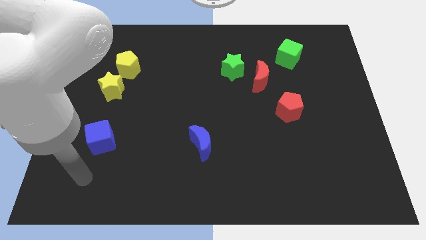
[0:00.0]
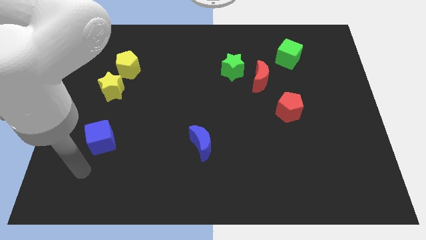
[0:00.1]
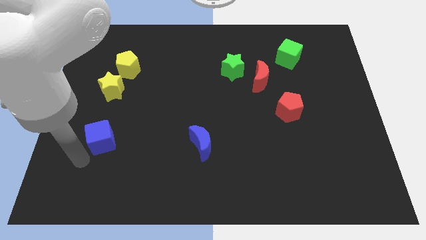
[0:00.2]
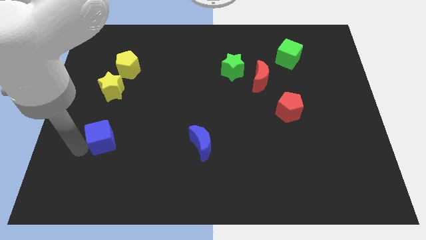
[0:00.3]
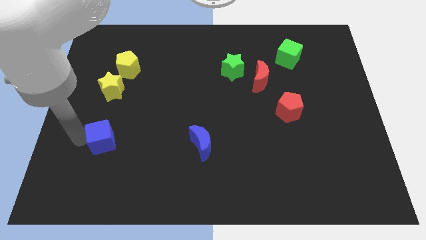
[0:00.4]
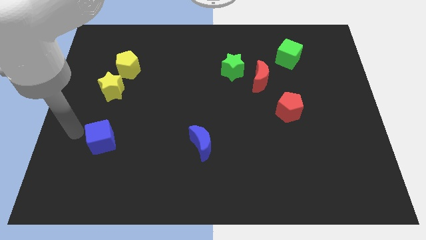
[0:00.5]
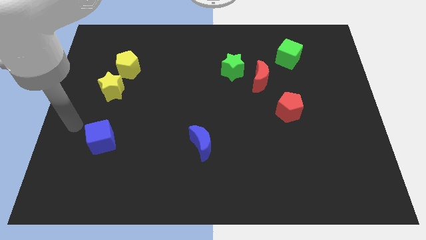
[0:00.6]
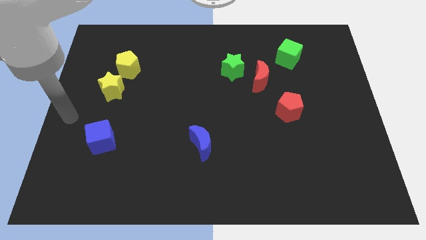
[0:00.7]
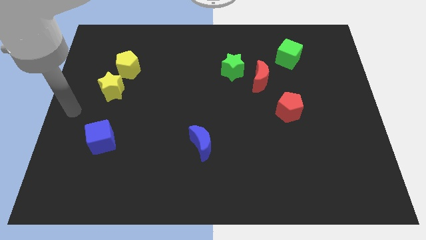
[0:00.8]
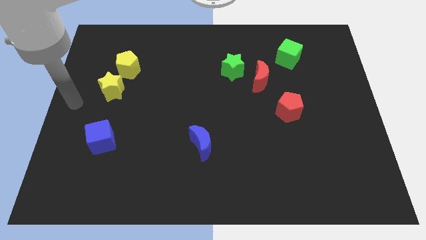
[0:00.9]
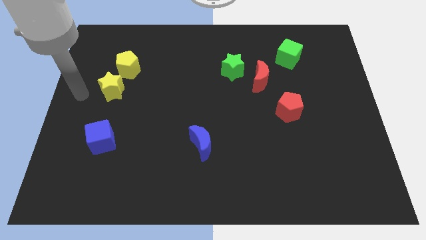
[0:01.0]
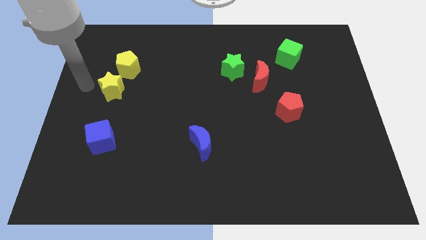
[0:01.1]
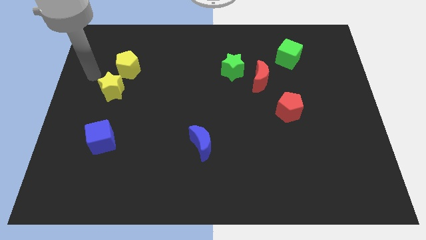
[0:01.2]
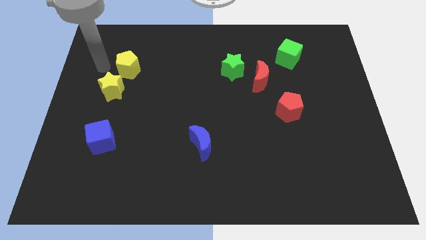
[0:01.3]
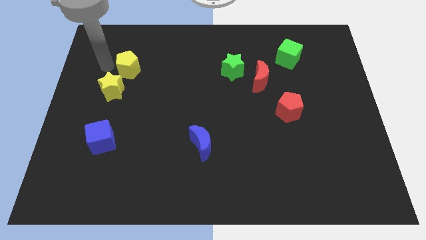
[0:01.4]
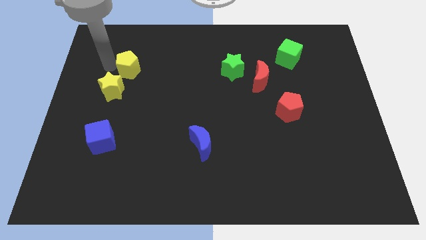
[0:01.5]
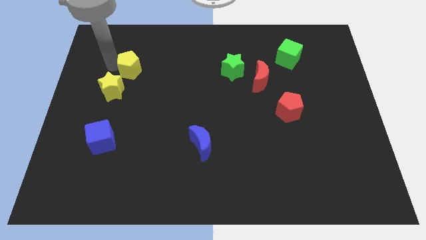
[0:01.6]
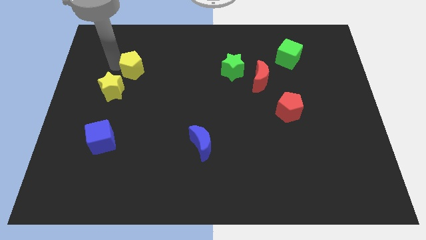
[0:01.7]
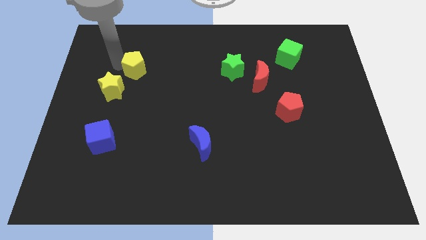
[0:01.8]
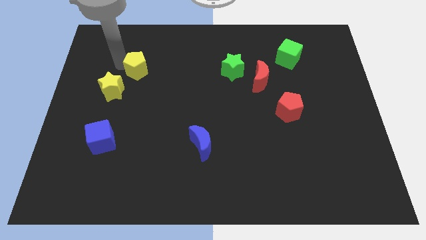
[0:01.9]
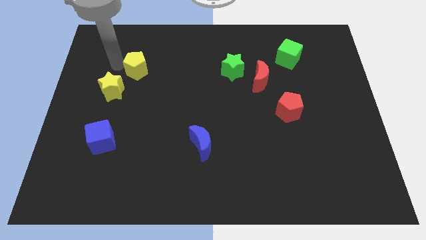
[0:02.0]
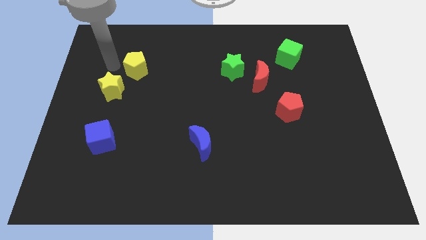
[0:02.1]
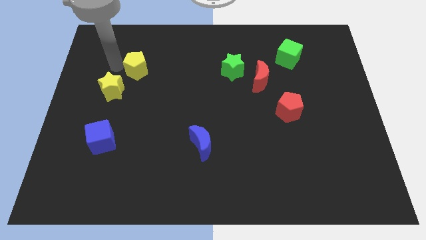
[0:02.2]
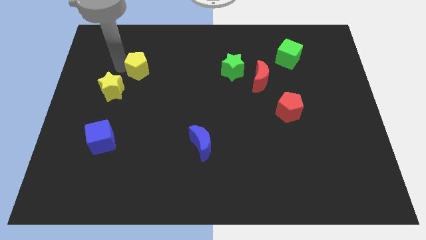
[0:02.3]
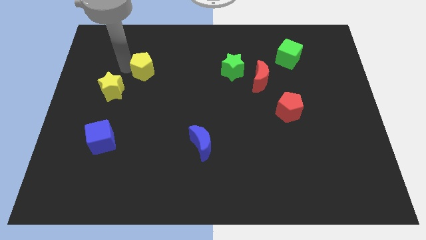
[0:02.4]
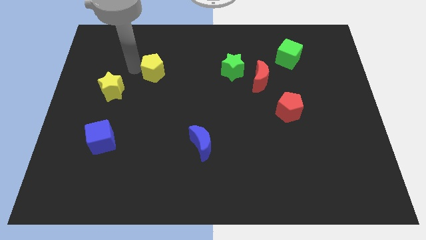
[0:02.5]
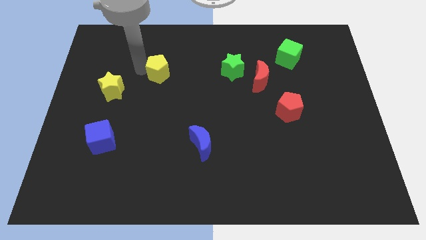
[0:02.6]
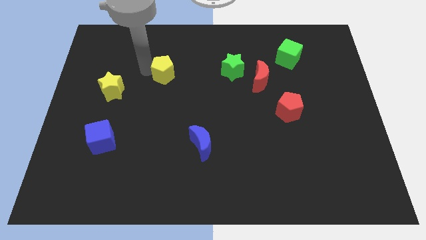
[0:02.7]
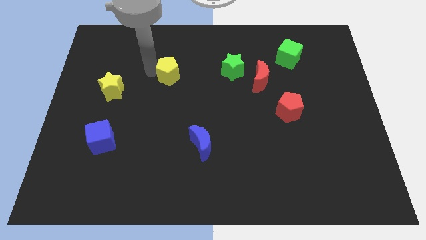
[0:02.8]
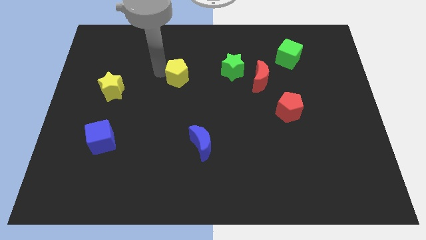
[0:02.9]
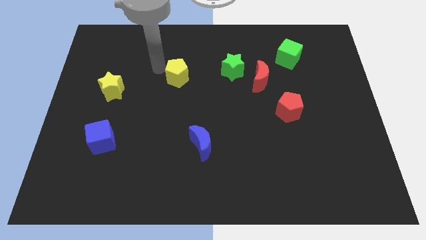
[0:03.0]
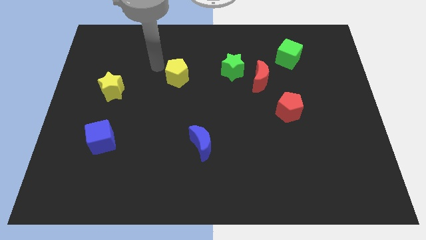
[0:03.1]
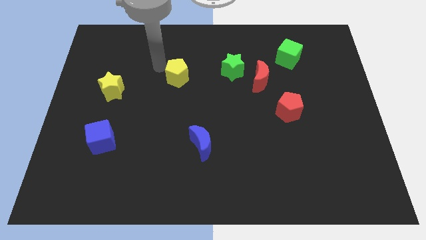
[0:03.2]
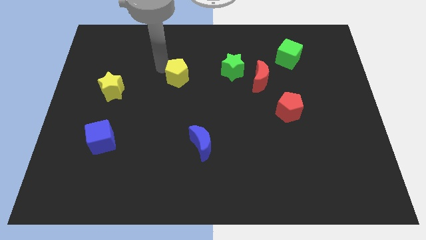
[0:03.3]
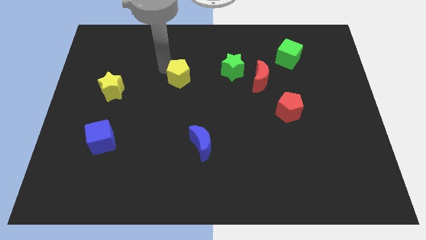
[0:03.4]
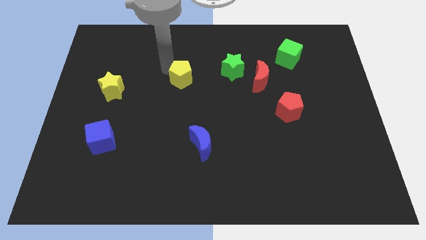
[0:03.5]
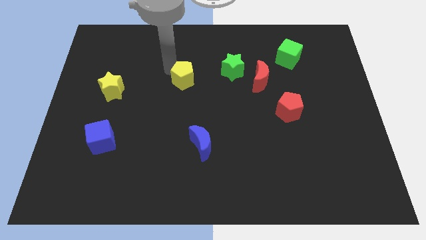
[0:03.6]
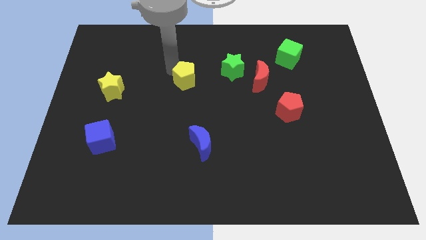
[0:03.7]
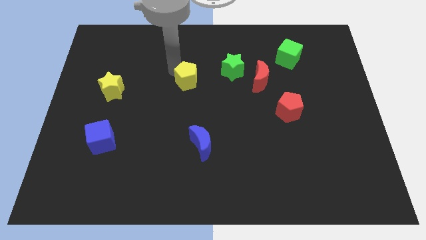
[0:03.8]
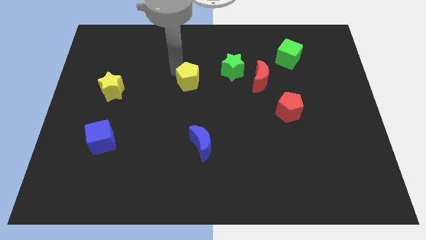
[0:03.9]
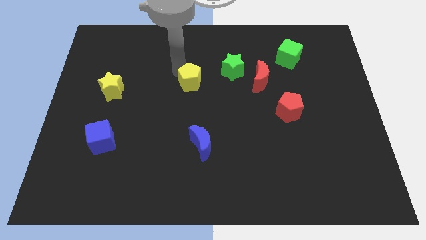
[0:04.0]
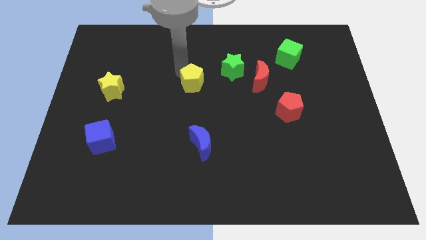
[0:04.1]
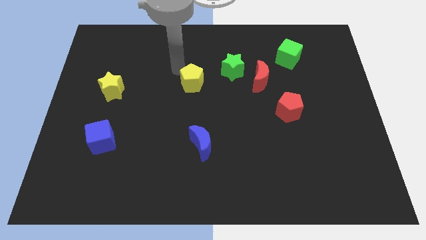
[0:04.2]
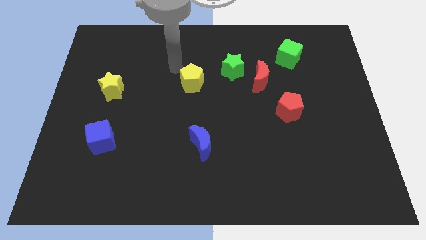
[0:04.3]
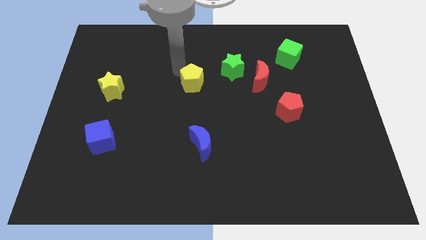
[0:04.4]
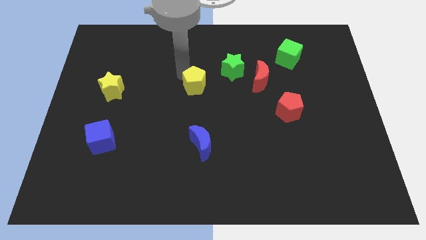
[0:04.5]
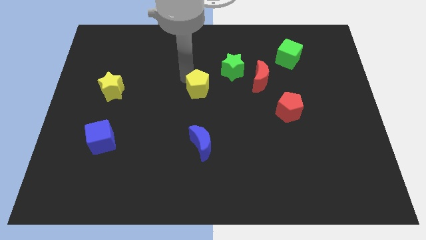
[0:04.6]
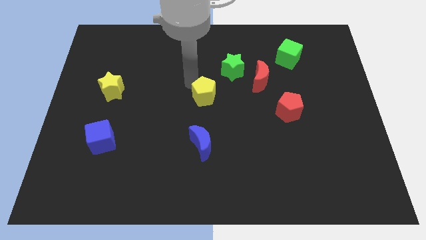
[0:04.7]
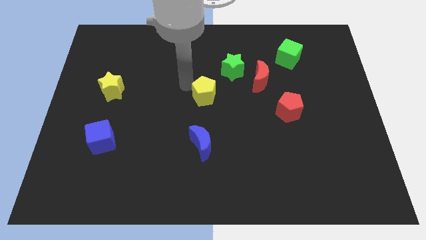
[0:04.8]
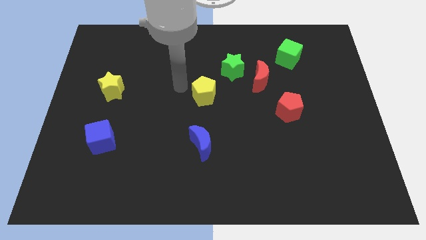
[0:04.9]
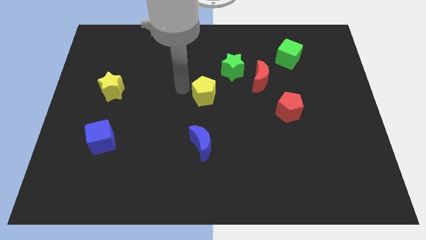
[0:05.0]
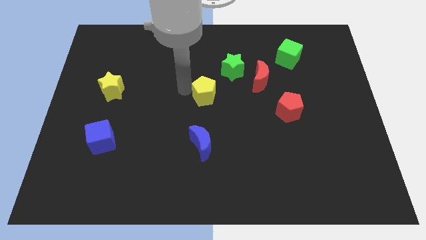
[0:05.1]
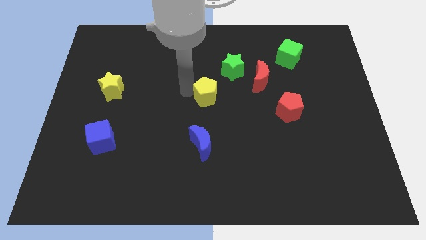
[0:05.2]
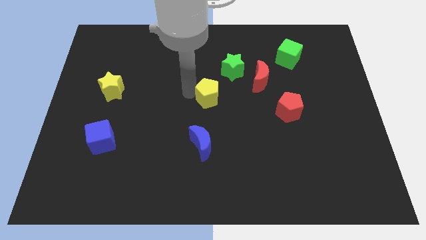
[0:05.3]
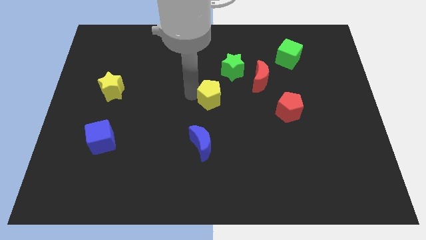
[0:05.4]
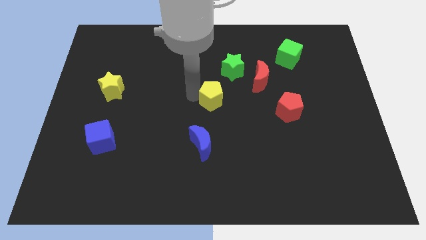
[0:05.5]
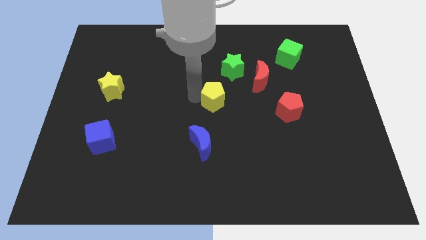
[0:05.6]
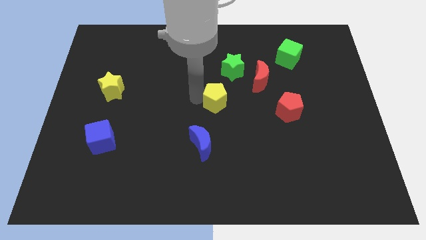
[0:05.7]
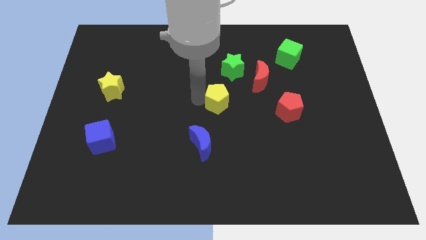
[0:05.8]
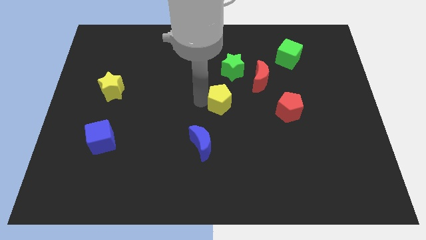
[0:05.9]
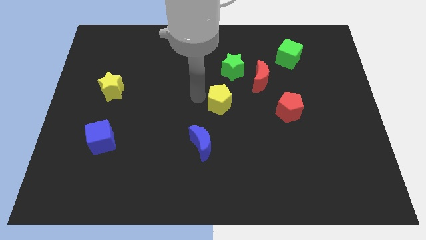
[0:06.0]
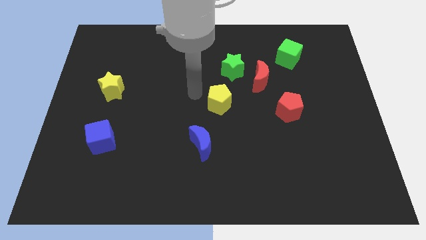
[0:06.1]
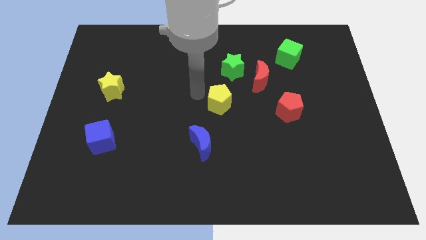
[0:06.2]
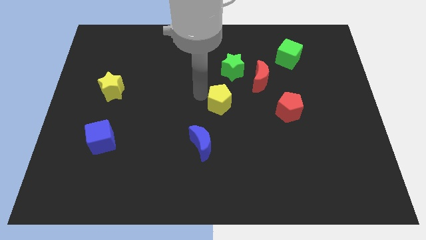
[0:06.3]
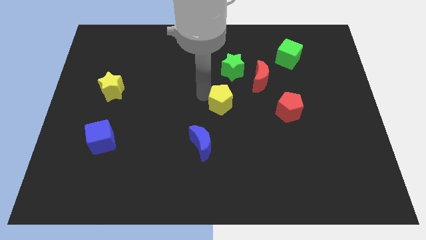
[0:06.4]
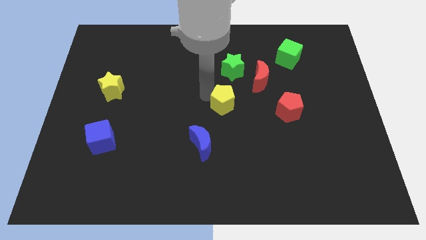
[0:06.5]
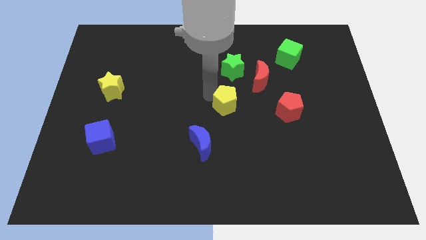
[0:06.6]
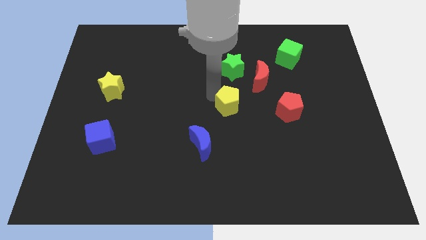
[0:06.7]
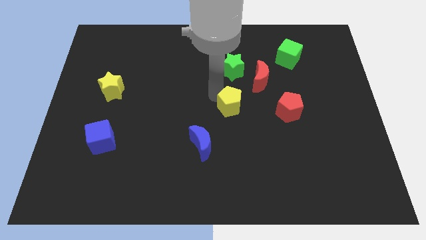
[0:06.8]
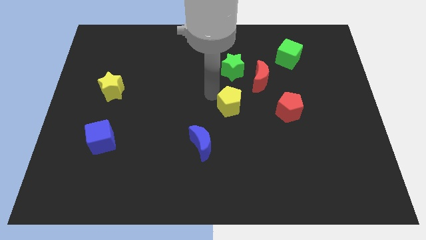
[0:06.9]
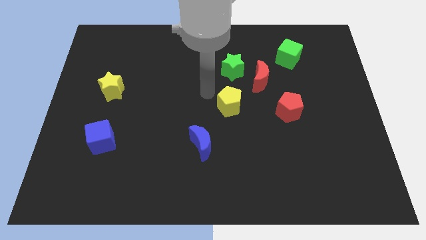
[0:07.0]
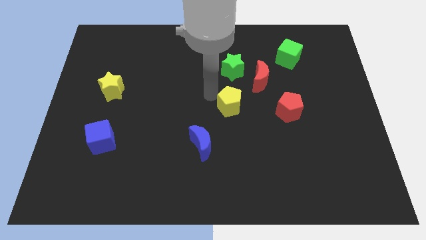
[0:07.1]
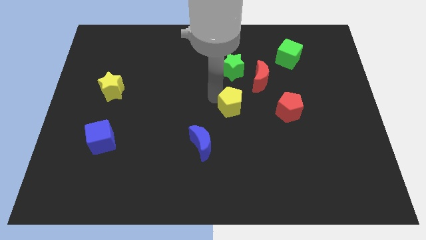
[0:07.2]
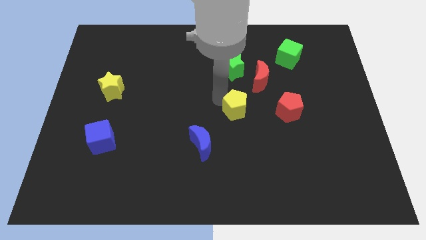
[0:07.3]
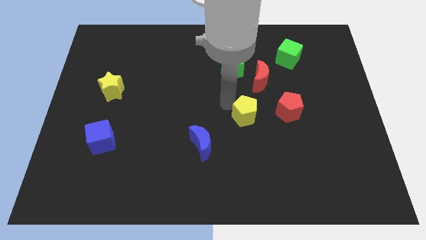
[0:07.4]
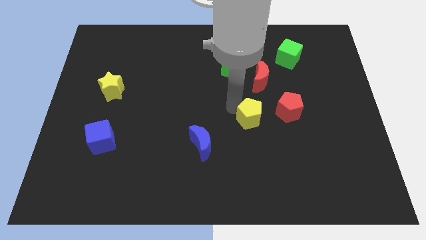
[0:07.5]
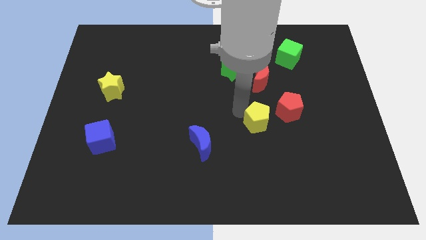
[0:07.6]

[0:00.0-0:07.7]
put the yellow pentagon to the bottom left of the red pentagon

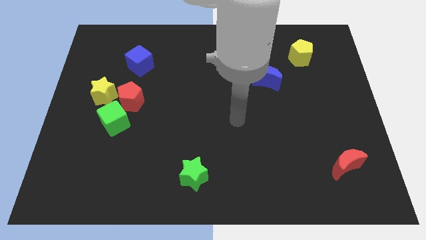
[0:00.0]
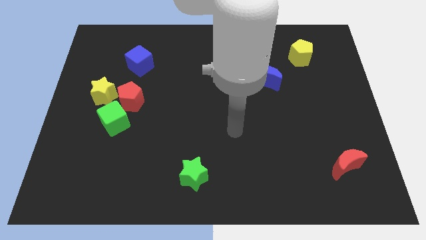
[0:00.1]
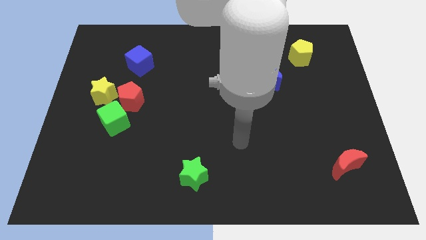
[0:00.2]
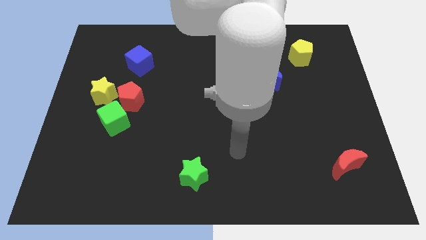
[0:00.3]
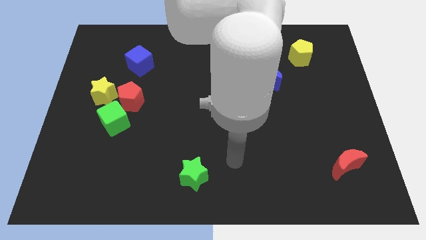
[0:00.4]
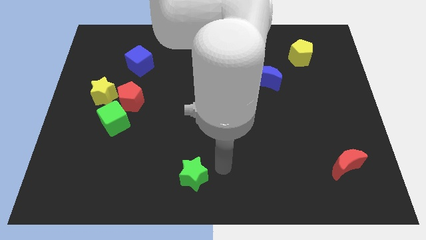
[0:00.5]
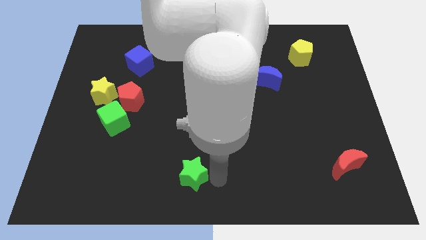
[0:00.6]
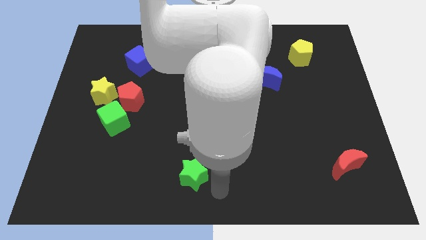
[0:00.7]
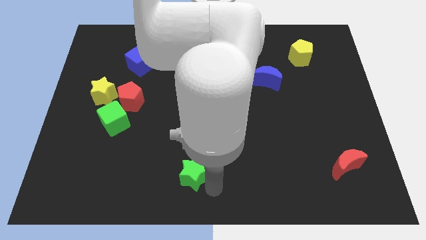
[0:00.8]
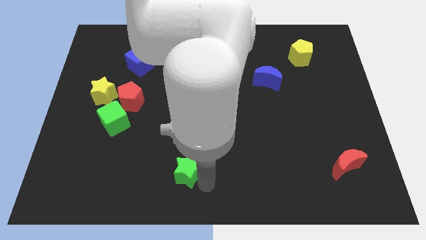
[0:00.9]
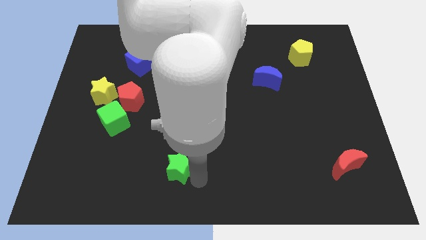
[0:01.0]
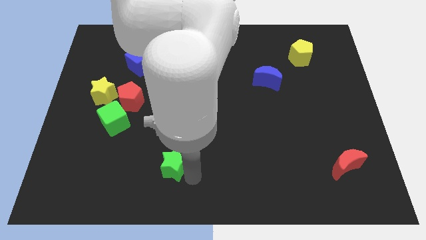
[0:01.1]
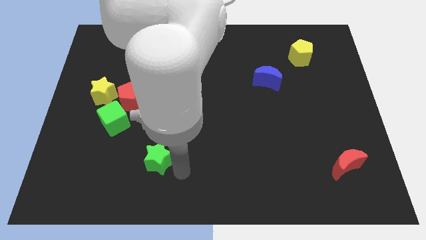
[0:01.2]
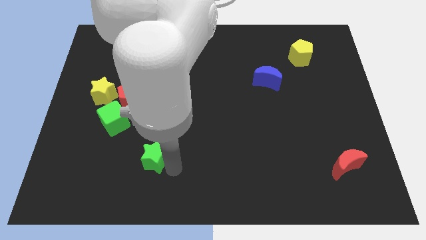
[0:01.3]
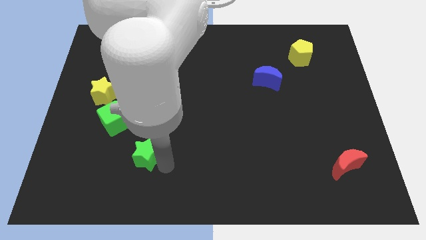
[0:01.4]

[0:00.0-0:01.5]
move the green star diagonally down and to the right of the green cube
